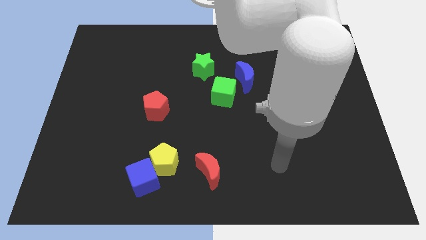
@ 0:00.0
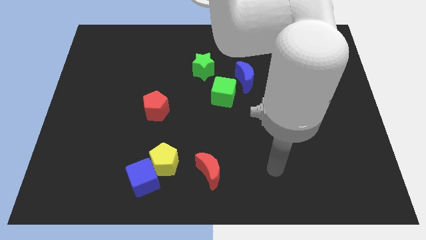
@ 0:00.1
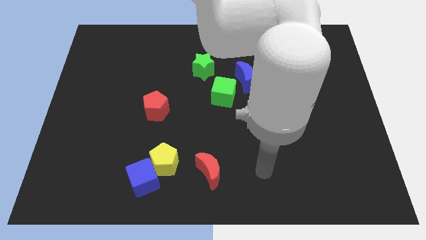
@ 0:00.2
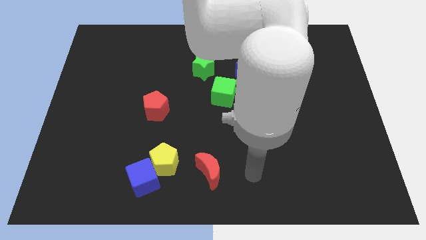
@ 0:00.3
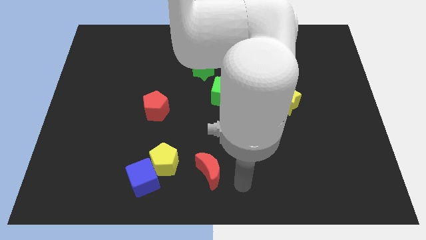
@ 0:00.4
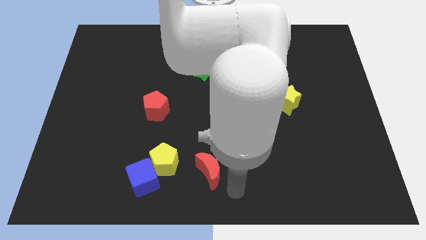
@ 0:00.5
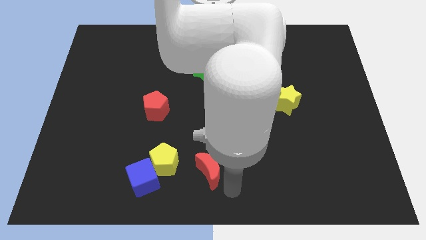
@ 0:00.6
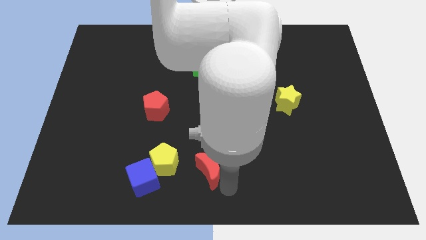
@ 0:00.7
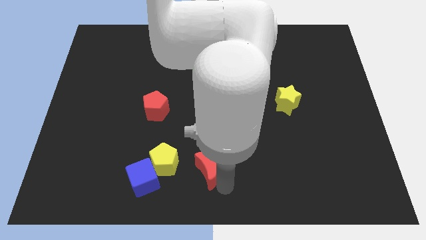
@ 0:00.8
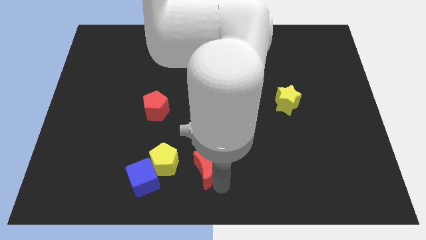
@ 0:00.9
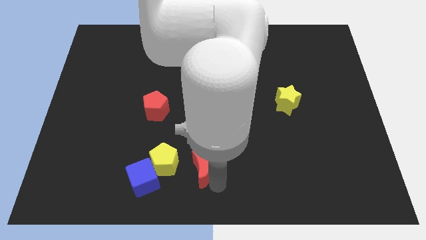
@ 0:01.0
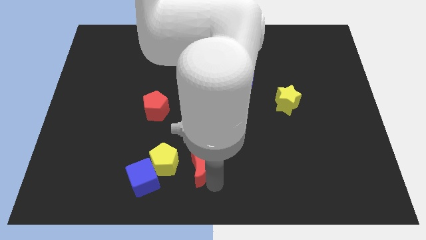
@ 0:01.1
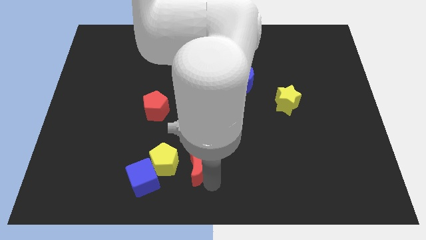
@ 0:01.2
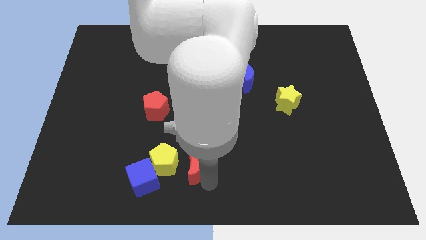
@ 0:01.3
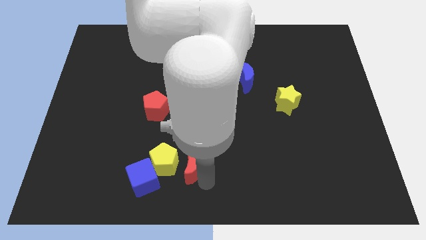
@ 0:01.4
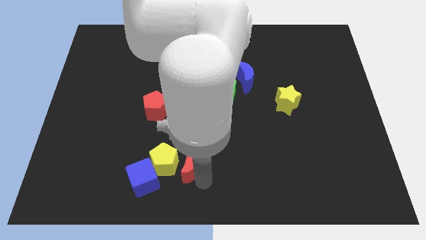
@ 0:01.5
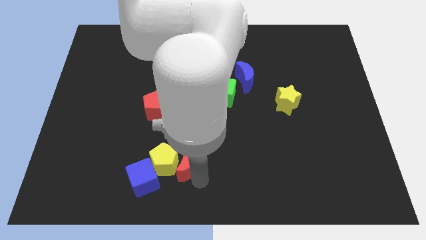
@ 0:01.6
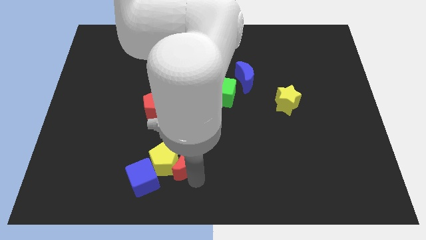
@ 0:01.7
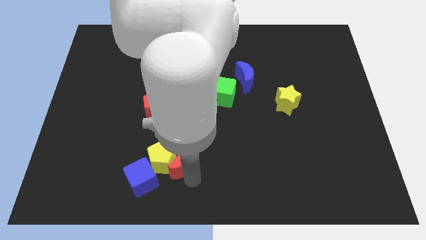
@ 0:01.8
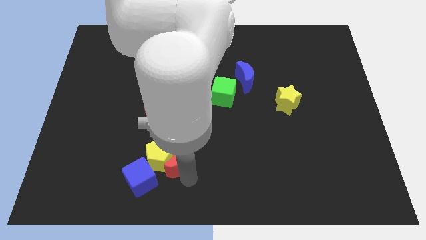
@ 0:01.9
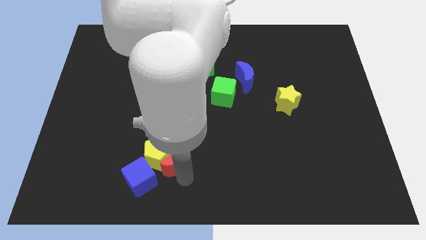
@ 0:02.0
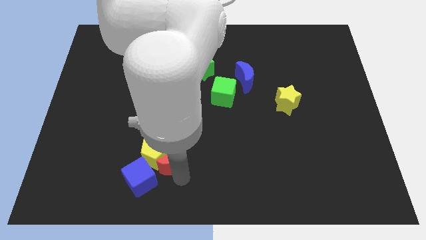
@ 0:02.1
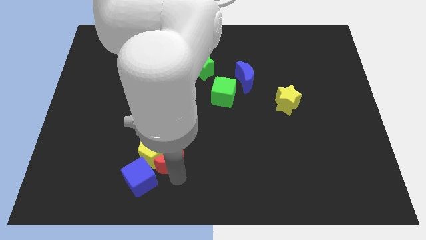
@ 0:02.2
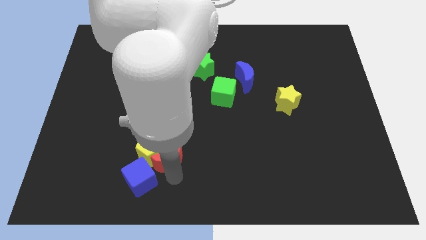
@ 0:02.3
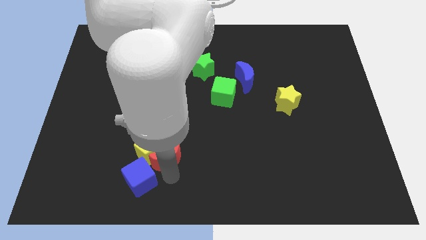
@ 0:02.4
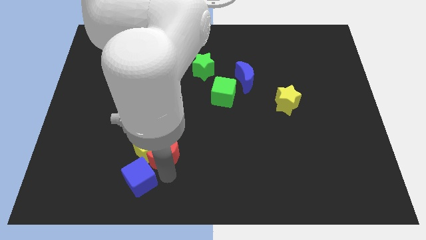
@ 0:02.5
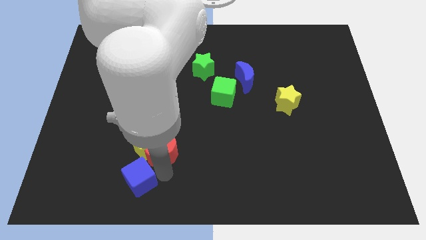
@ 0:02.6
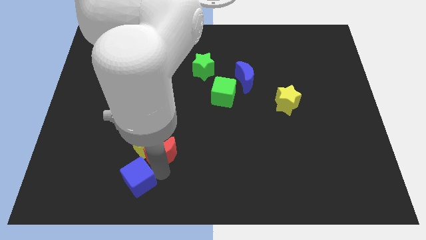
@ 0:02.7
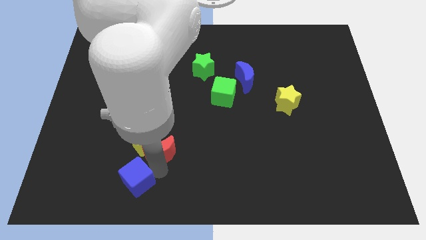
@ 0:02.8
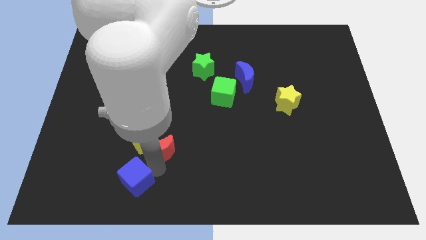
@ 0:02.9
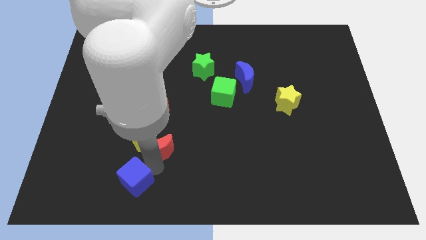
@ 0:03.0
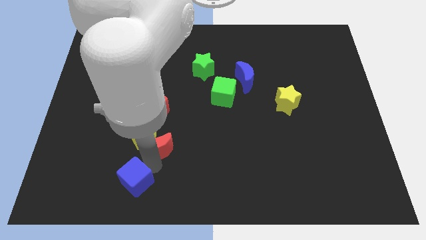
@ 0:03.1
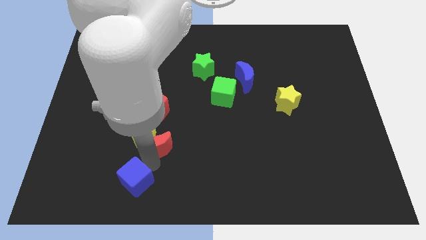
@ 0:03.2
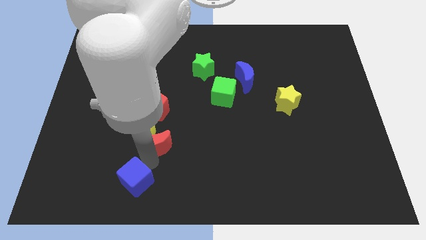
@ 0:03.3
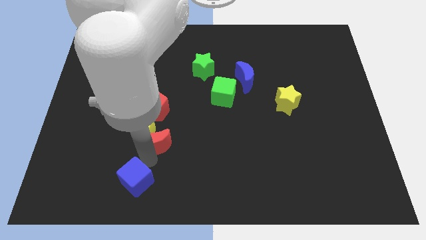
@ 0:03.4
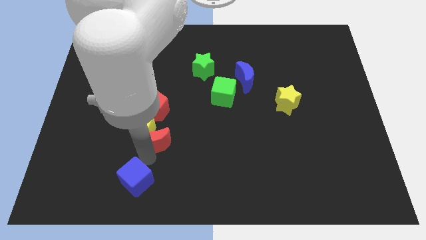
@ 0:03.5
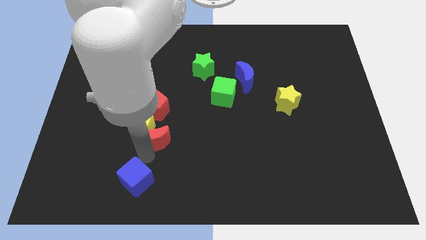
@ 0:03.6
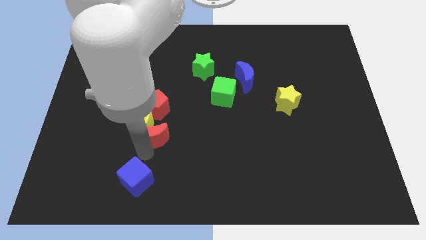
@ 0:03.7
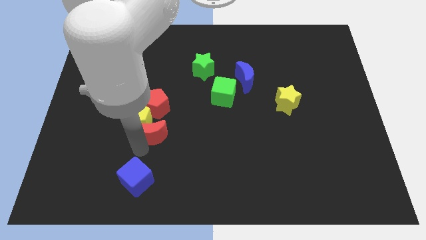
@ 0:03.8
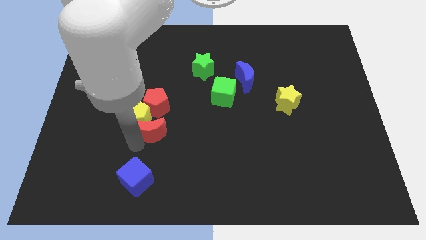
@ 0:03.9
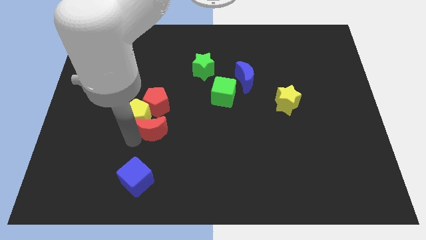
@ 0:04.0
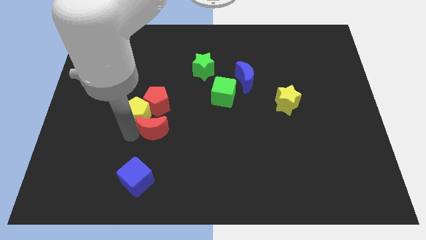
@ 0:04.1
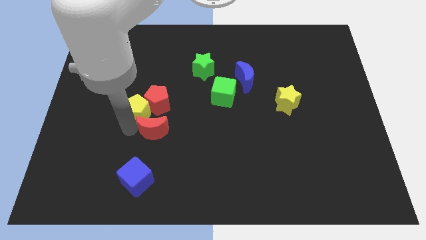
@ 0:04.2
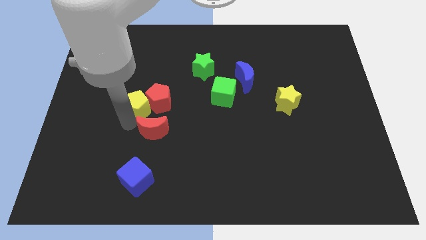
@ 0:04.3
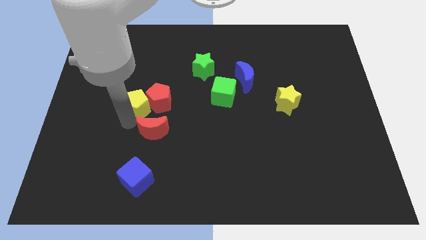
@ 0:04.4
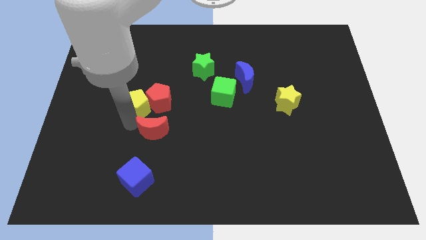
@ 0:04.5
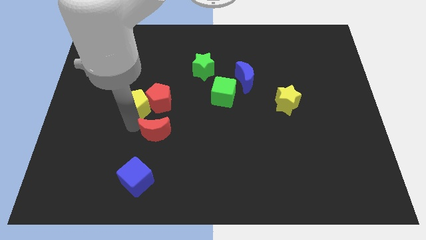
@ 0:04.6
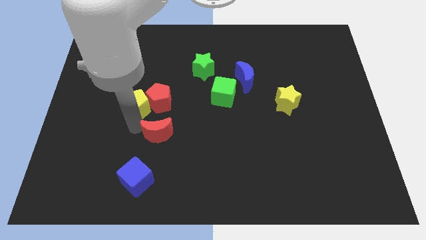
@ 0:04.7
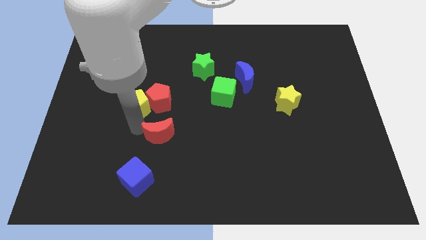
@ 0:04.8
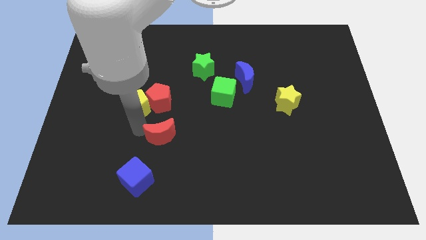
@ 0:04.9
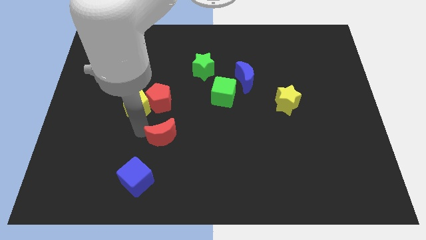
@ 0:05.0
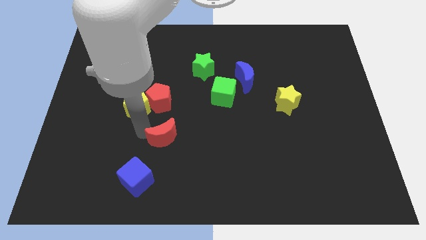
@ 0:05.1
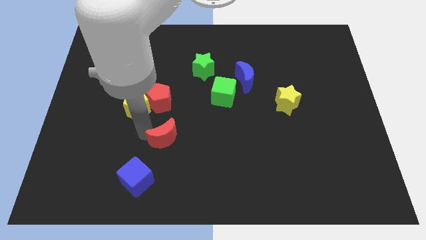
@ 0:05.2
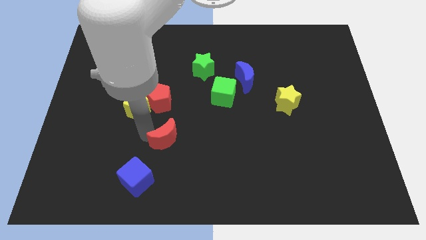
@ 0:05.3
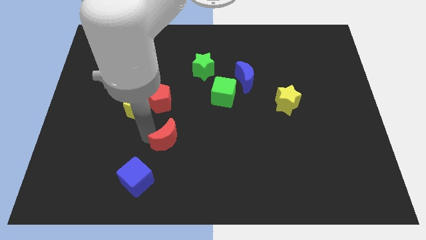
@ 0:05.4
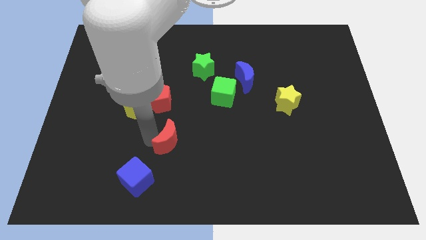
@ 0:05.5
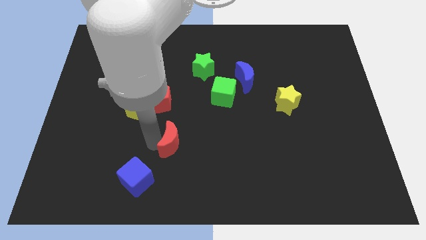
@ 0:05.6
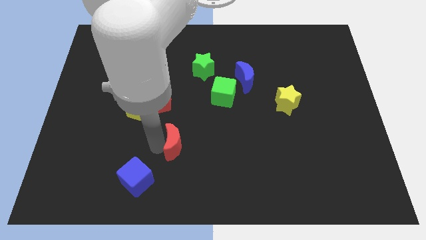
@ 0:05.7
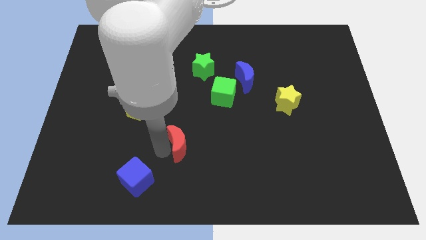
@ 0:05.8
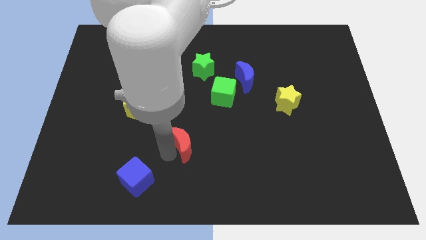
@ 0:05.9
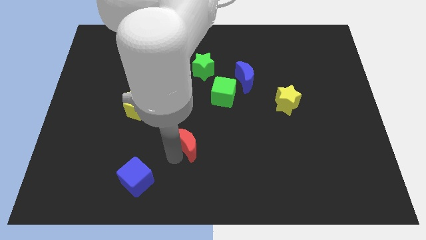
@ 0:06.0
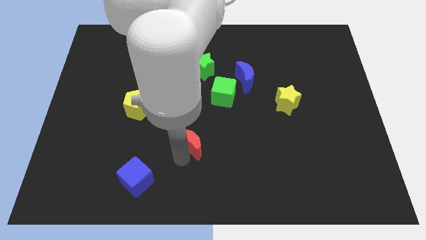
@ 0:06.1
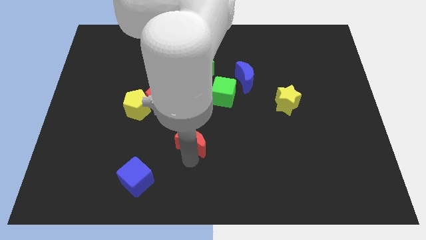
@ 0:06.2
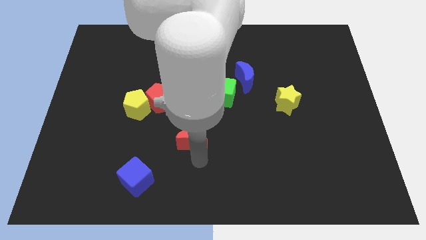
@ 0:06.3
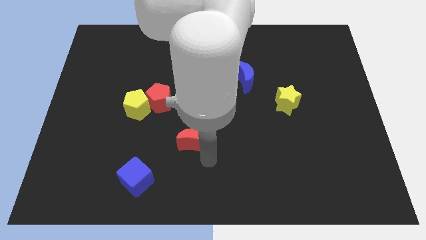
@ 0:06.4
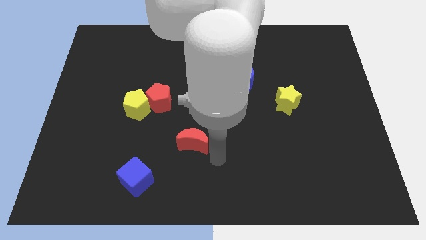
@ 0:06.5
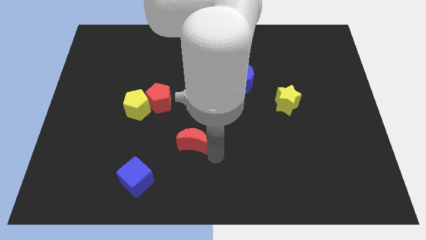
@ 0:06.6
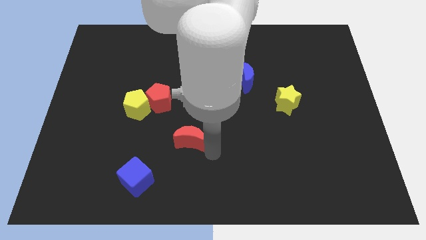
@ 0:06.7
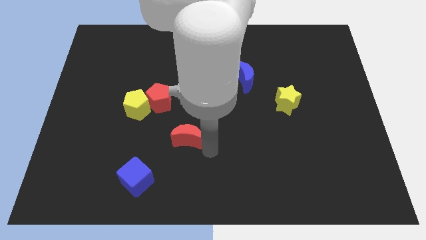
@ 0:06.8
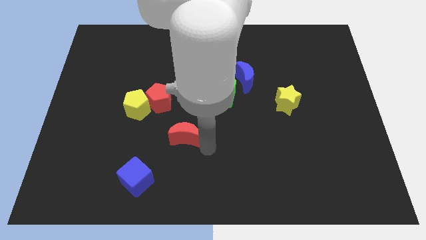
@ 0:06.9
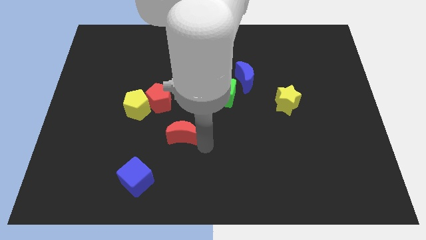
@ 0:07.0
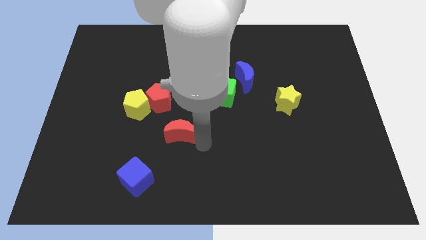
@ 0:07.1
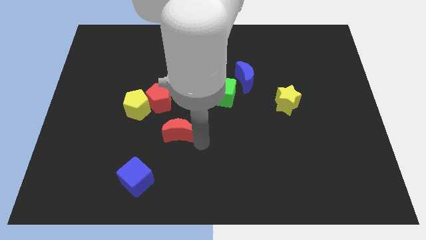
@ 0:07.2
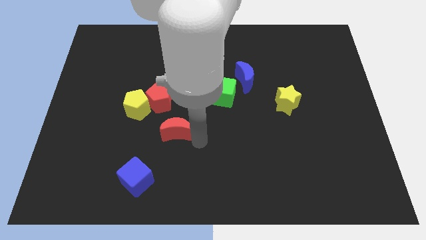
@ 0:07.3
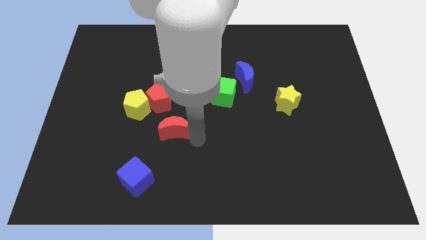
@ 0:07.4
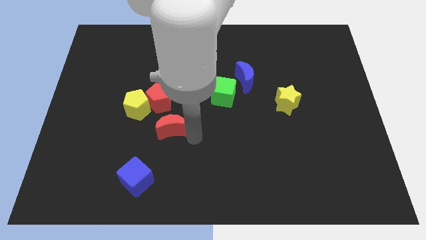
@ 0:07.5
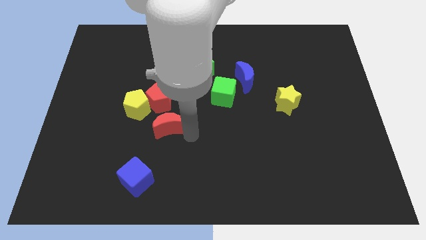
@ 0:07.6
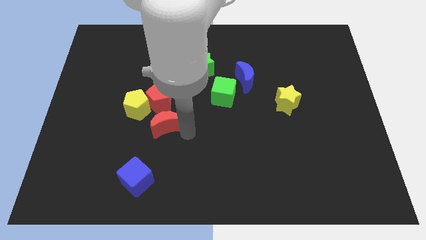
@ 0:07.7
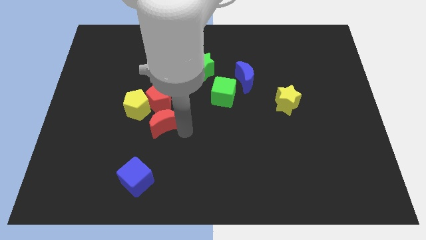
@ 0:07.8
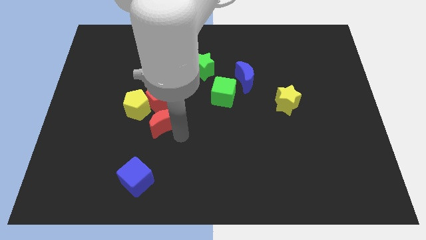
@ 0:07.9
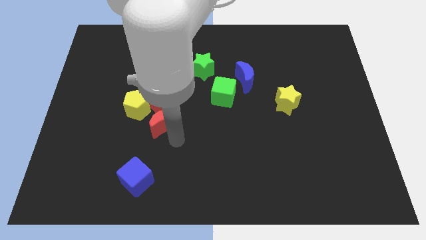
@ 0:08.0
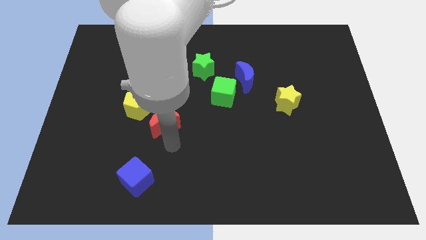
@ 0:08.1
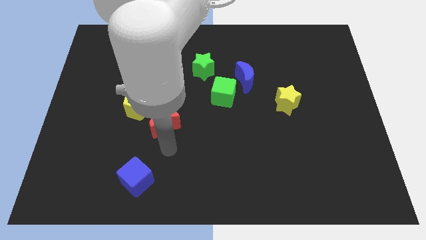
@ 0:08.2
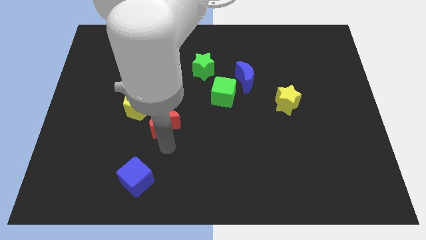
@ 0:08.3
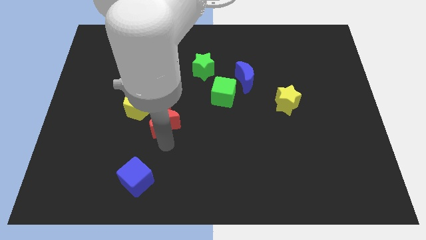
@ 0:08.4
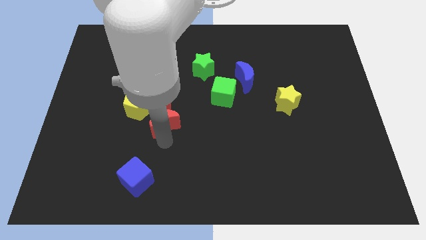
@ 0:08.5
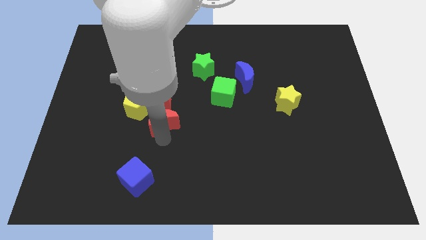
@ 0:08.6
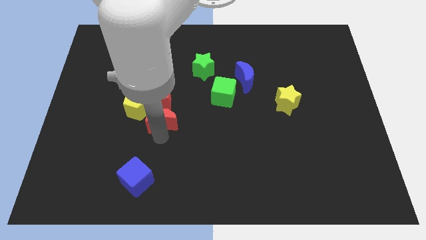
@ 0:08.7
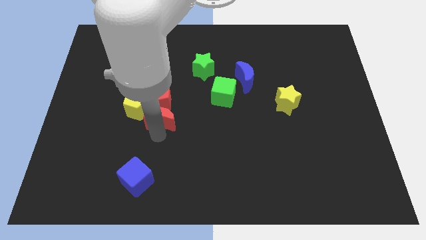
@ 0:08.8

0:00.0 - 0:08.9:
move the red moon next to the red pentagon
